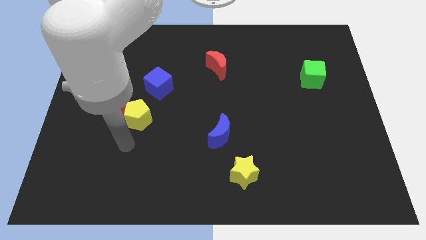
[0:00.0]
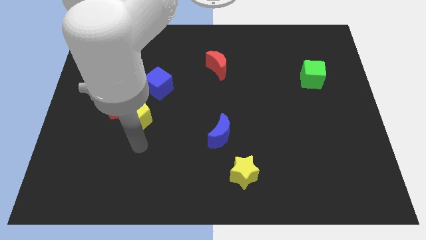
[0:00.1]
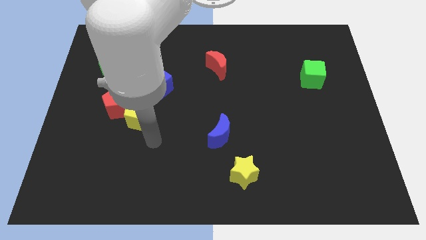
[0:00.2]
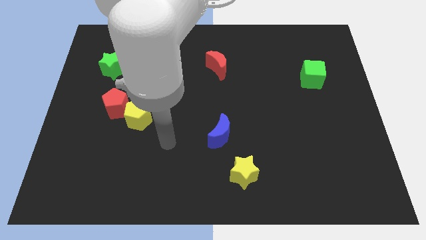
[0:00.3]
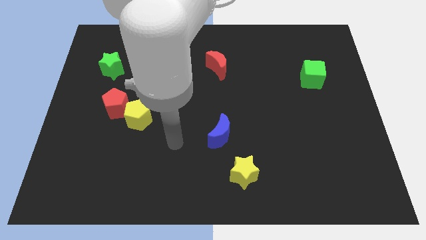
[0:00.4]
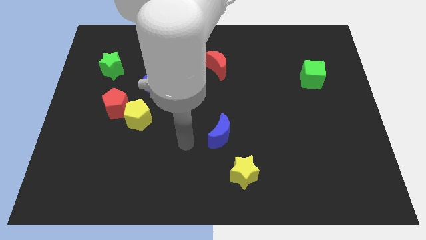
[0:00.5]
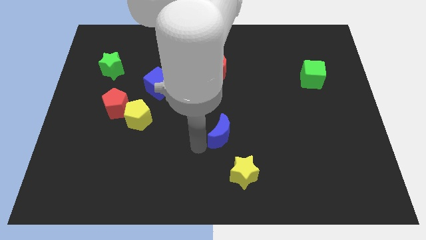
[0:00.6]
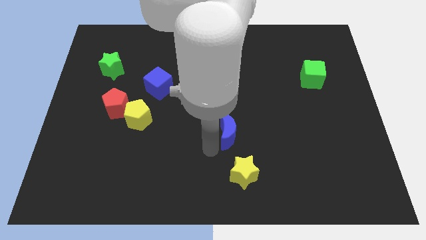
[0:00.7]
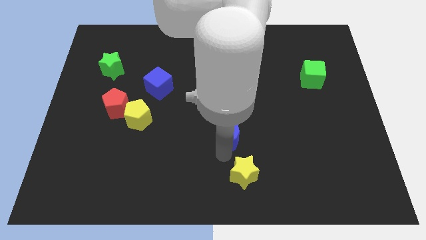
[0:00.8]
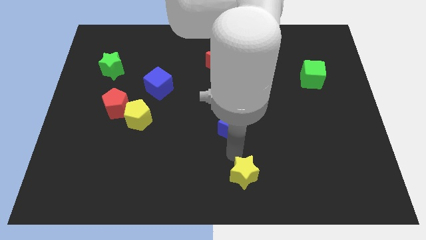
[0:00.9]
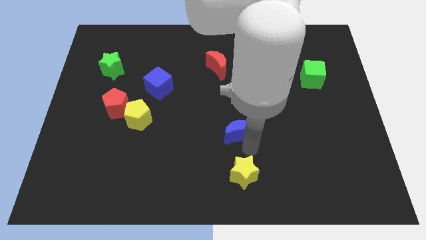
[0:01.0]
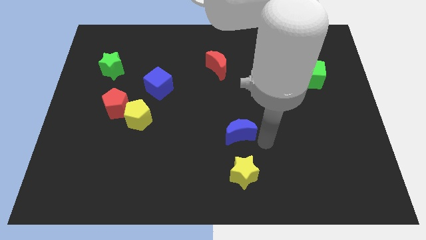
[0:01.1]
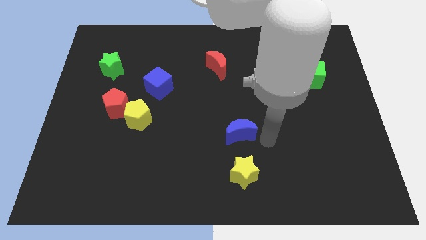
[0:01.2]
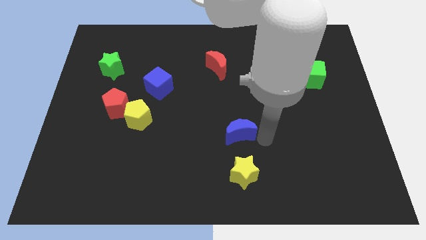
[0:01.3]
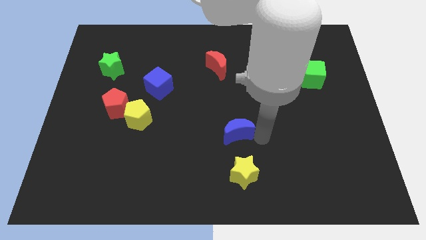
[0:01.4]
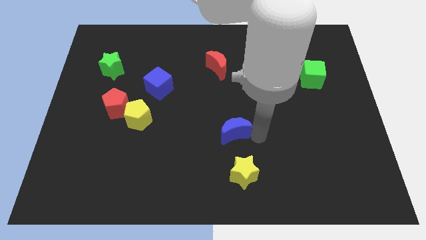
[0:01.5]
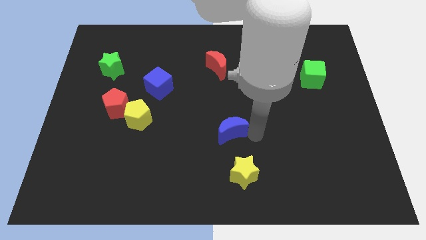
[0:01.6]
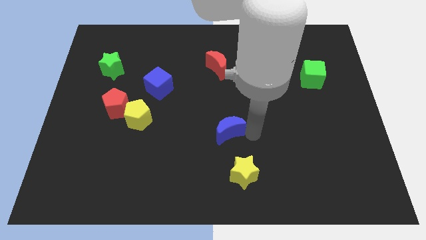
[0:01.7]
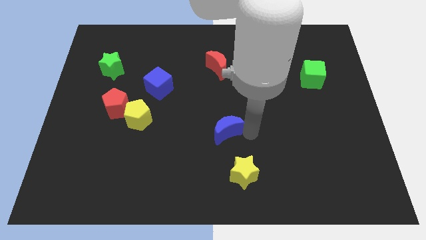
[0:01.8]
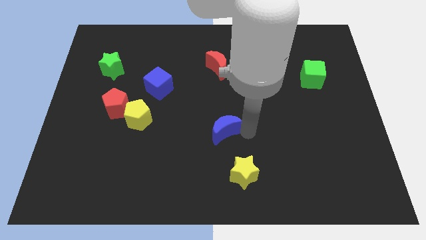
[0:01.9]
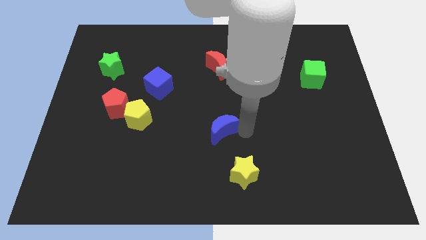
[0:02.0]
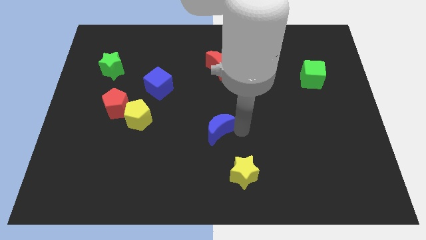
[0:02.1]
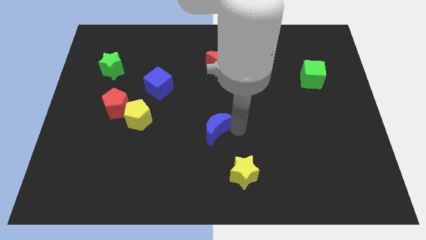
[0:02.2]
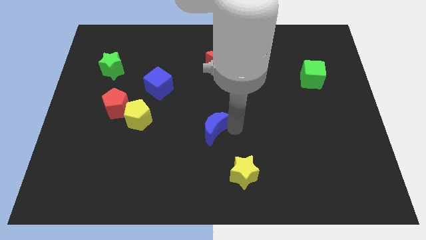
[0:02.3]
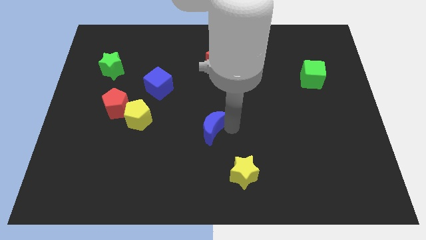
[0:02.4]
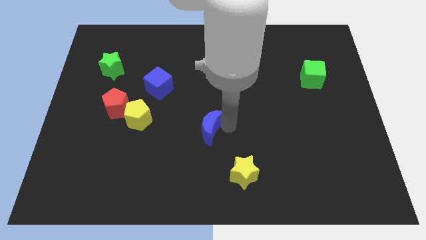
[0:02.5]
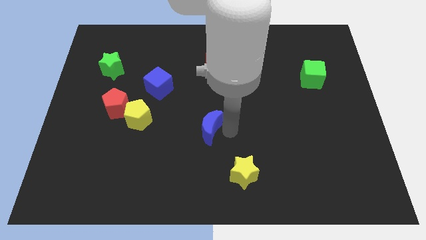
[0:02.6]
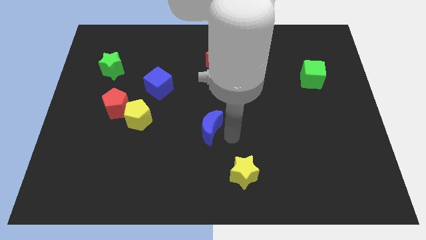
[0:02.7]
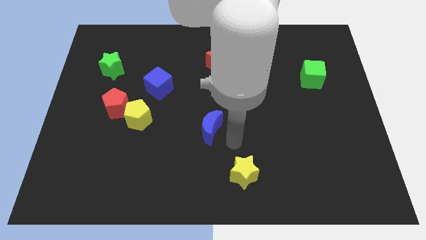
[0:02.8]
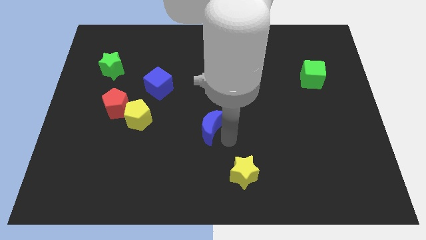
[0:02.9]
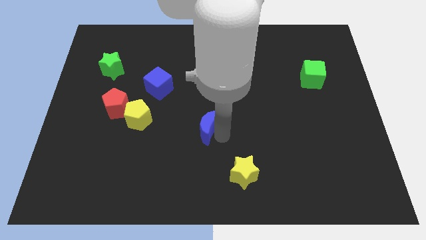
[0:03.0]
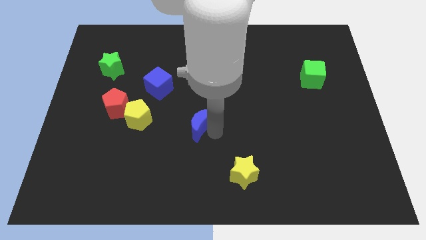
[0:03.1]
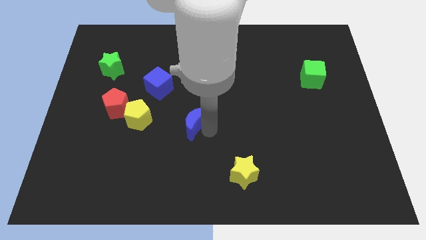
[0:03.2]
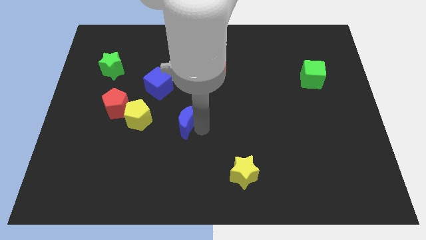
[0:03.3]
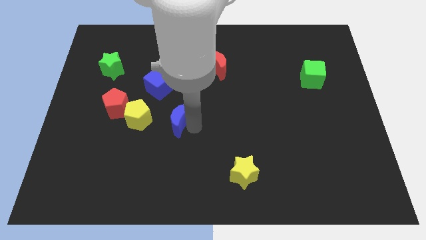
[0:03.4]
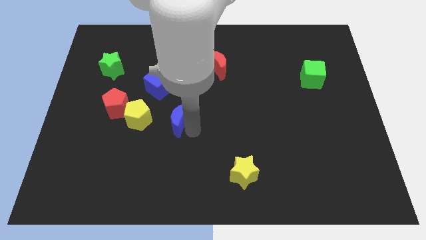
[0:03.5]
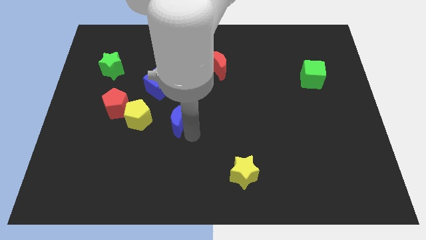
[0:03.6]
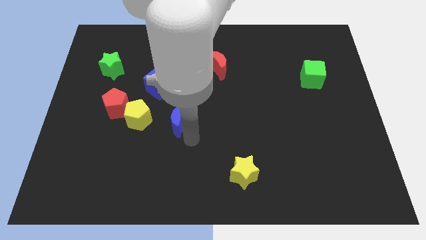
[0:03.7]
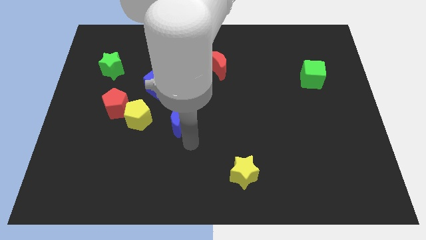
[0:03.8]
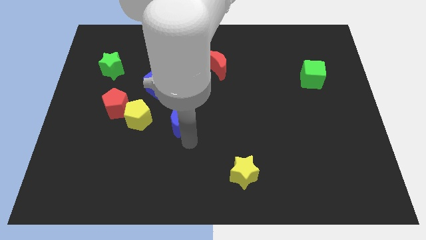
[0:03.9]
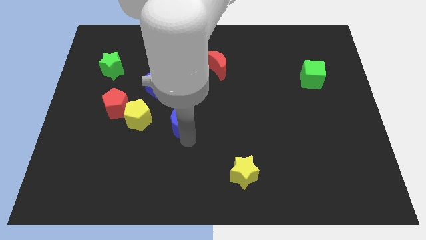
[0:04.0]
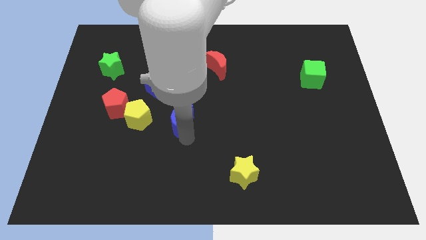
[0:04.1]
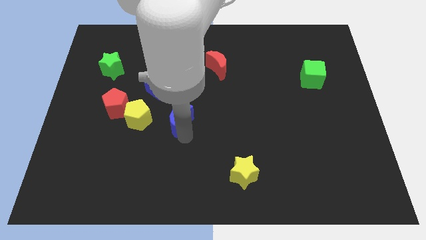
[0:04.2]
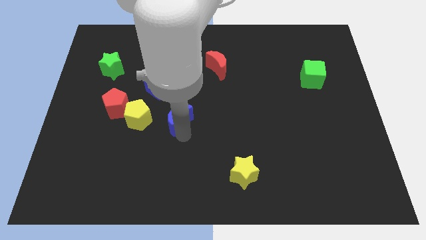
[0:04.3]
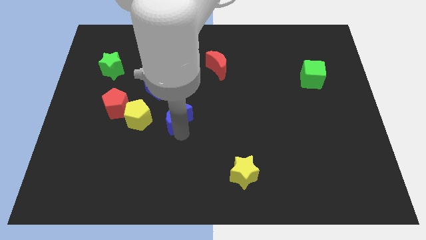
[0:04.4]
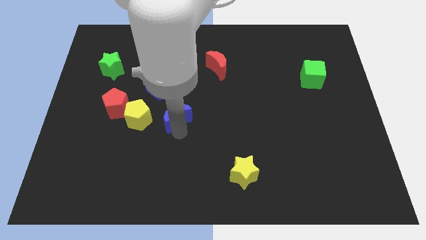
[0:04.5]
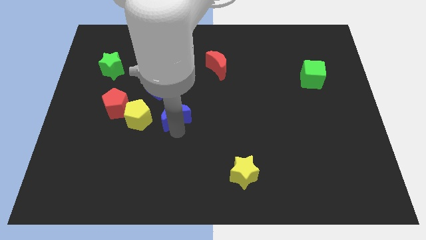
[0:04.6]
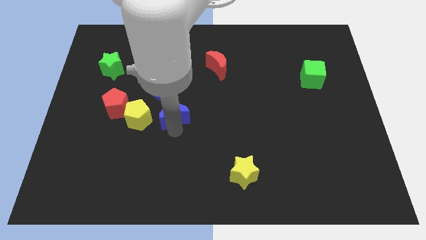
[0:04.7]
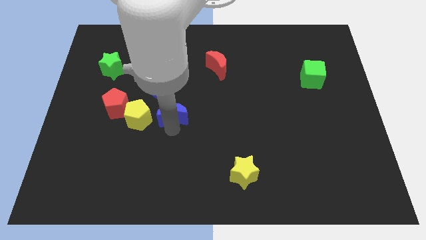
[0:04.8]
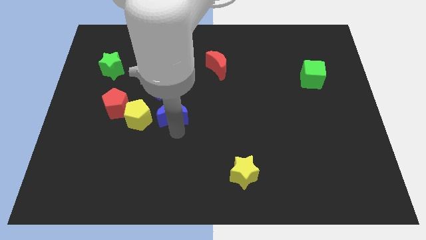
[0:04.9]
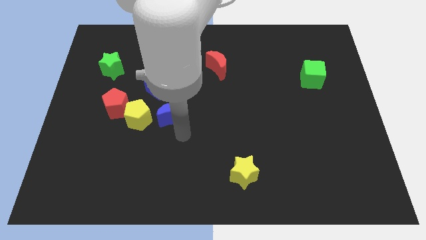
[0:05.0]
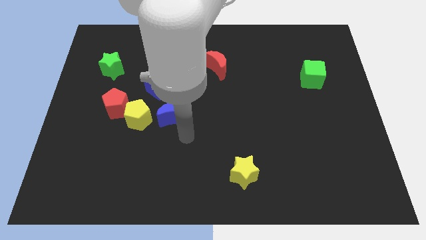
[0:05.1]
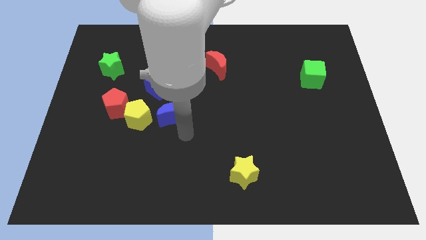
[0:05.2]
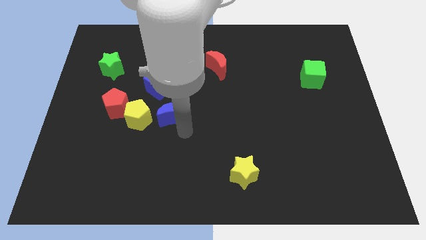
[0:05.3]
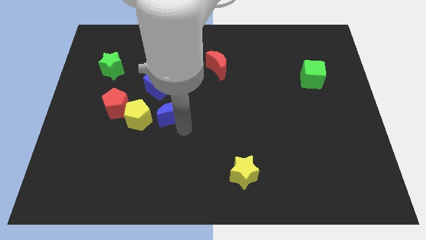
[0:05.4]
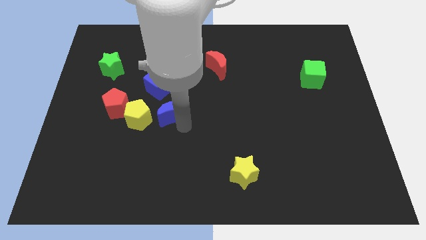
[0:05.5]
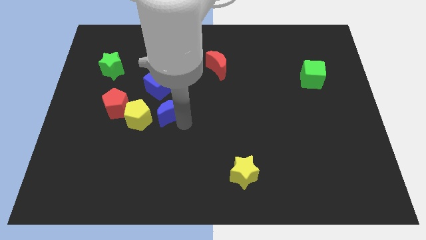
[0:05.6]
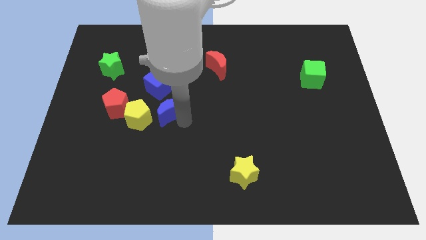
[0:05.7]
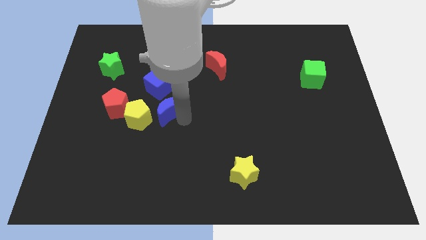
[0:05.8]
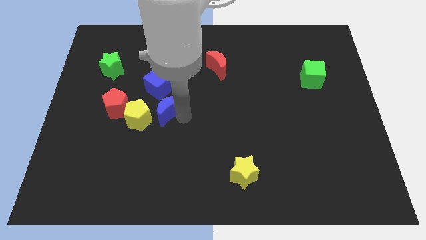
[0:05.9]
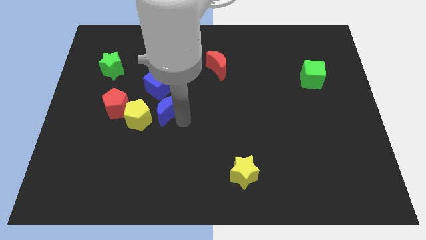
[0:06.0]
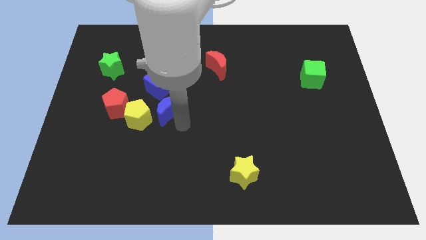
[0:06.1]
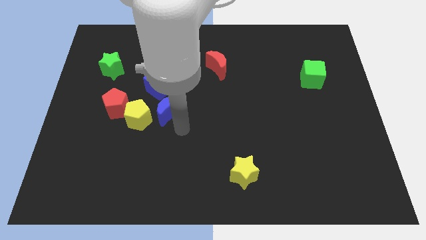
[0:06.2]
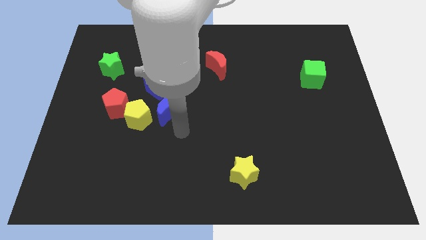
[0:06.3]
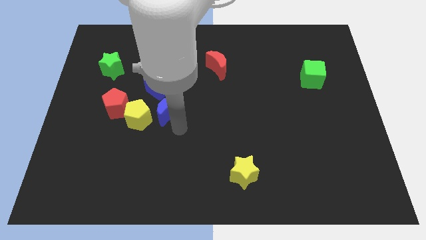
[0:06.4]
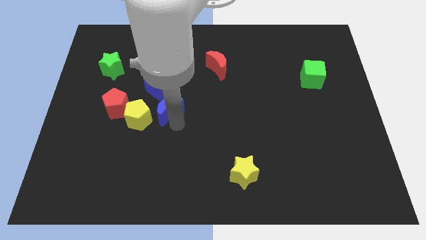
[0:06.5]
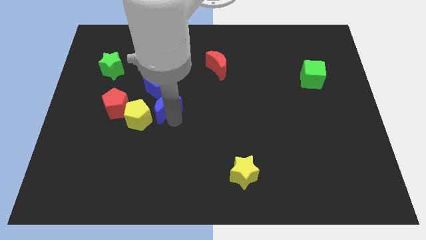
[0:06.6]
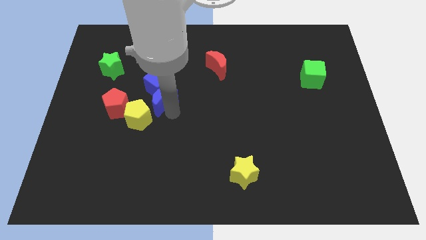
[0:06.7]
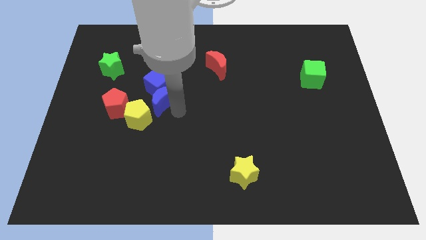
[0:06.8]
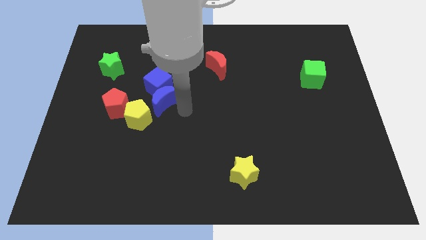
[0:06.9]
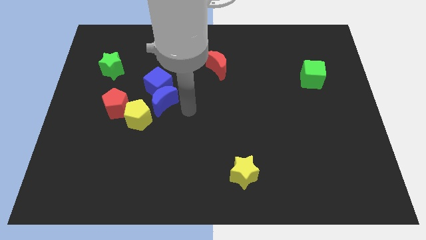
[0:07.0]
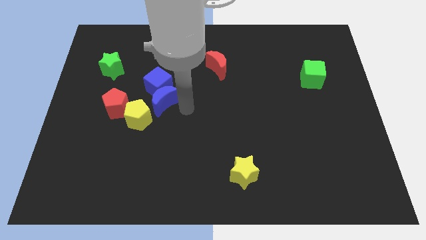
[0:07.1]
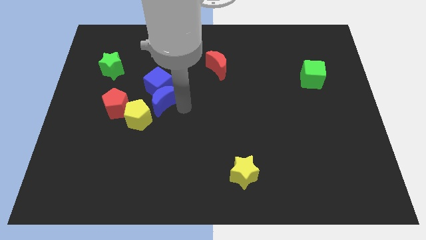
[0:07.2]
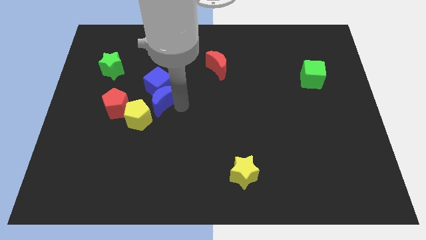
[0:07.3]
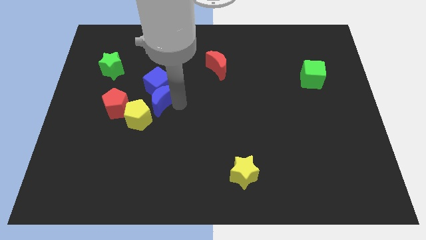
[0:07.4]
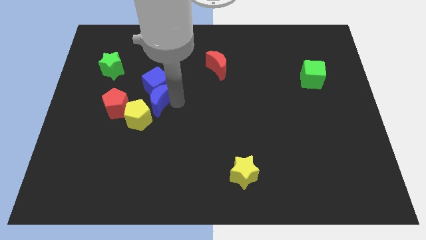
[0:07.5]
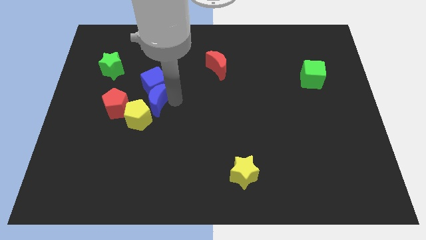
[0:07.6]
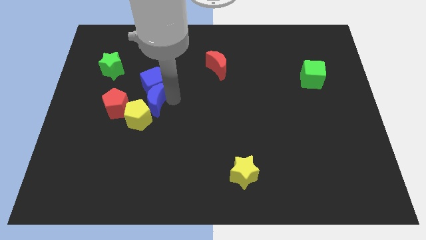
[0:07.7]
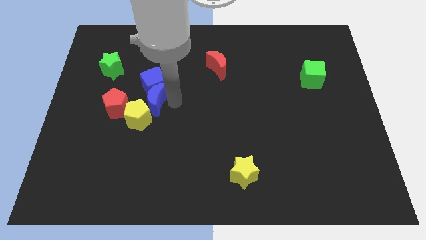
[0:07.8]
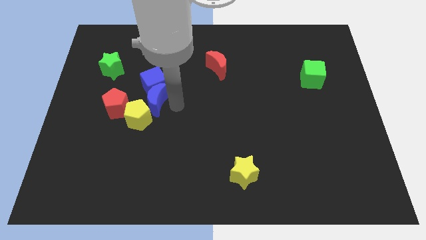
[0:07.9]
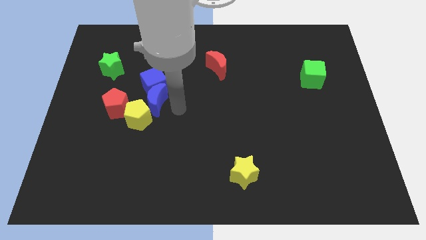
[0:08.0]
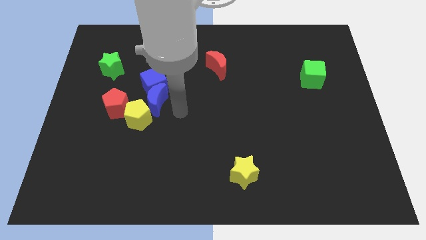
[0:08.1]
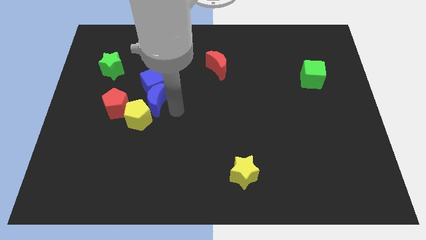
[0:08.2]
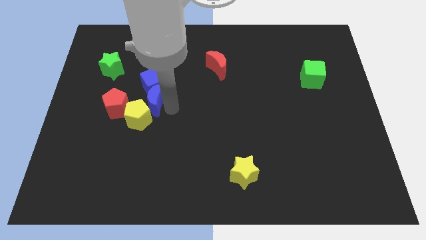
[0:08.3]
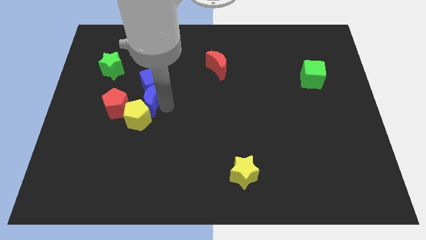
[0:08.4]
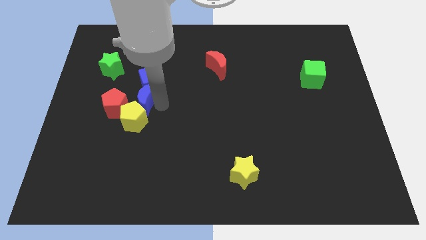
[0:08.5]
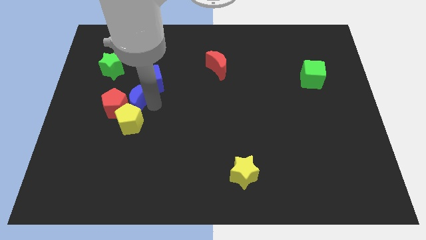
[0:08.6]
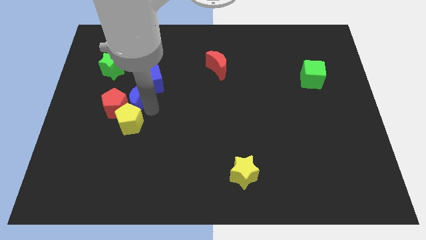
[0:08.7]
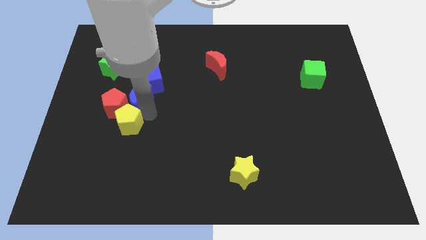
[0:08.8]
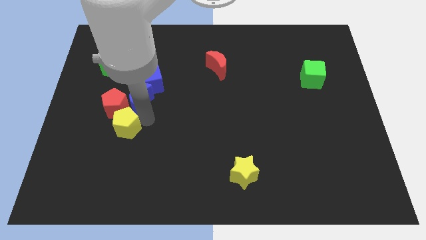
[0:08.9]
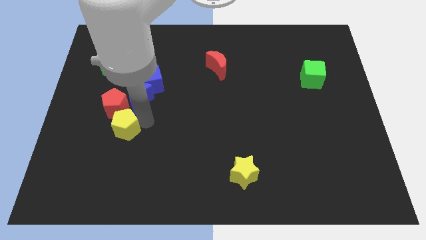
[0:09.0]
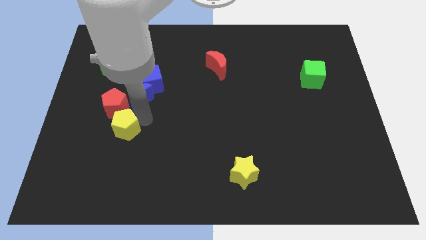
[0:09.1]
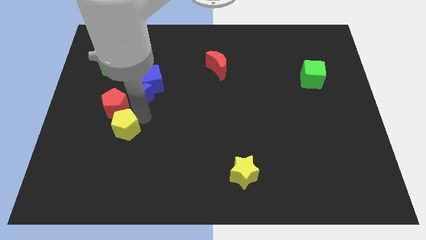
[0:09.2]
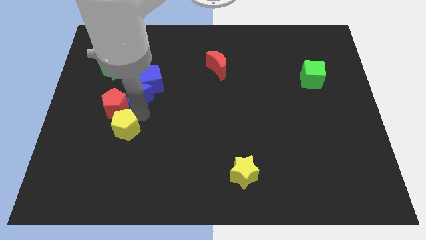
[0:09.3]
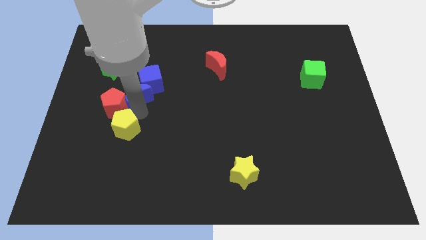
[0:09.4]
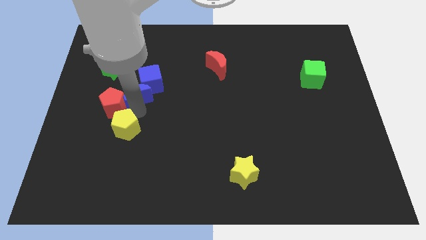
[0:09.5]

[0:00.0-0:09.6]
move the blue moon upwards and left diagonally
